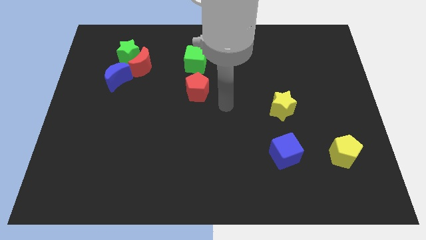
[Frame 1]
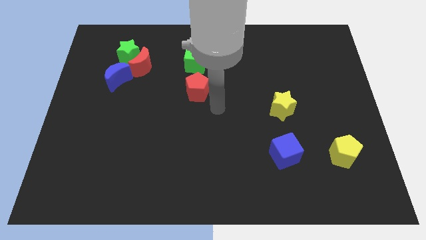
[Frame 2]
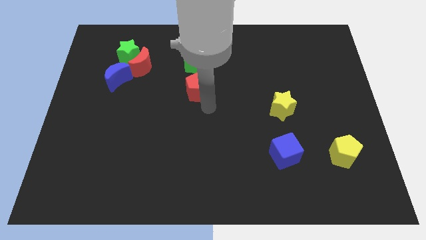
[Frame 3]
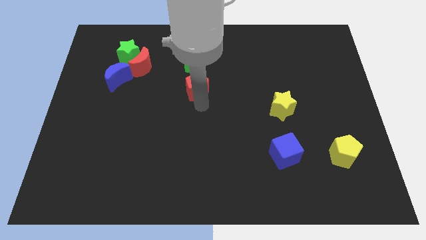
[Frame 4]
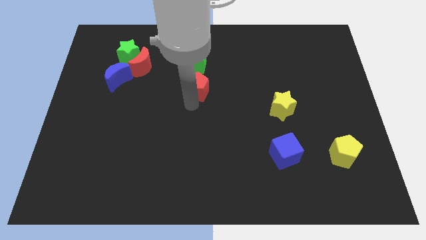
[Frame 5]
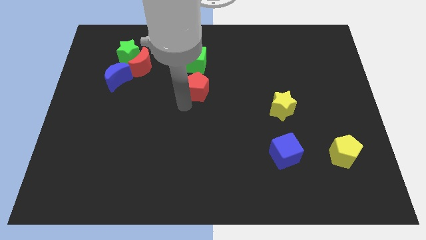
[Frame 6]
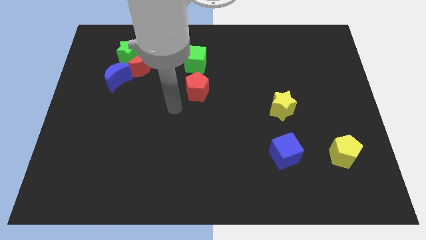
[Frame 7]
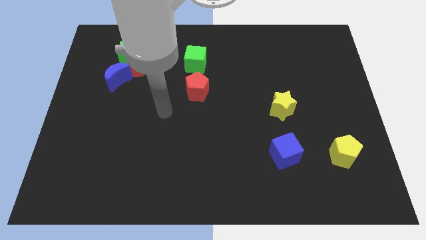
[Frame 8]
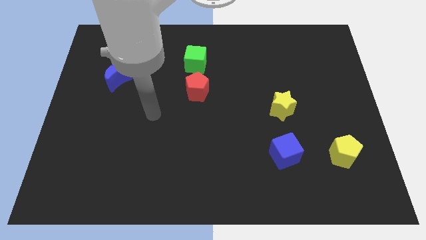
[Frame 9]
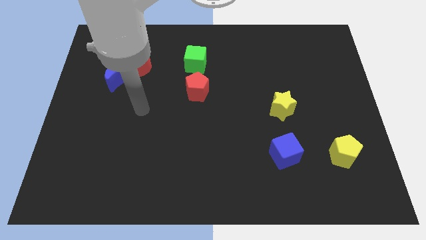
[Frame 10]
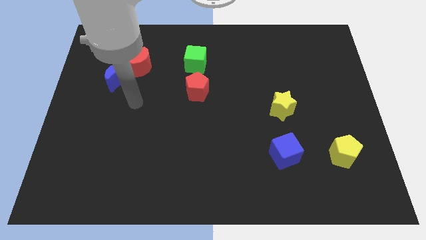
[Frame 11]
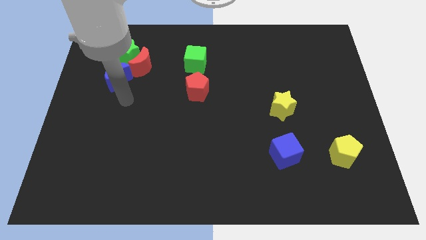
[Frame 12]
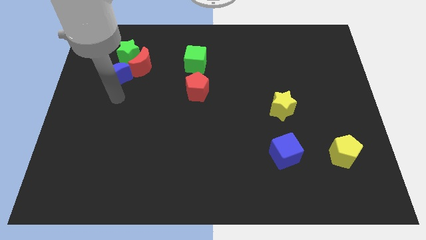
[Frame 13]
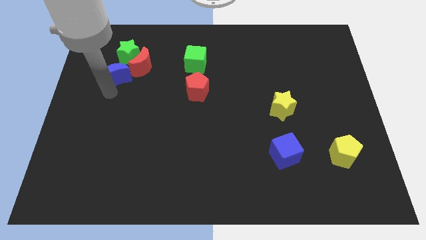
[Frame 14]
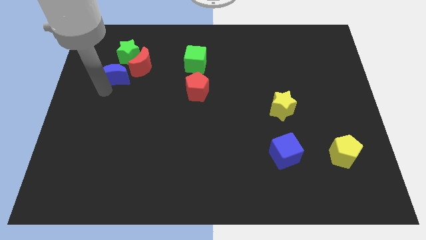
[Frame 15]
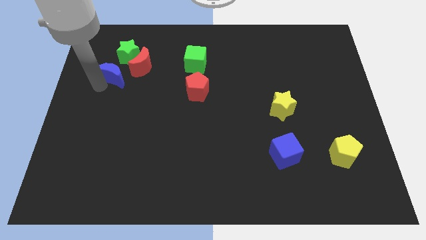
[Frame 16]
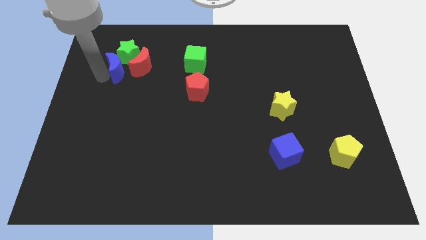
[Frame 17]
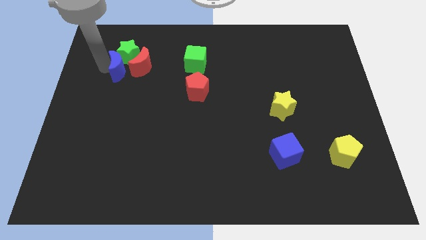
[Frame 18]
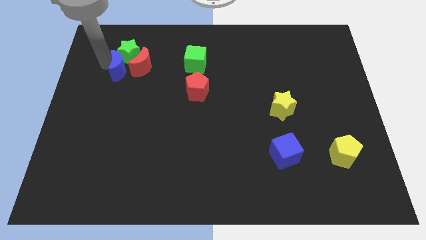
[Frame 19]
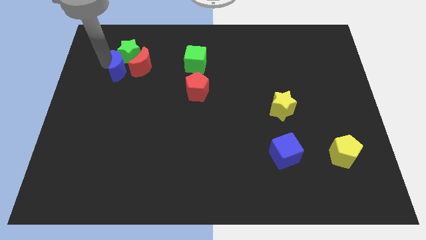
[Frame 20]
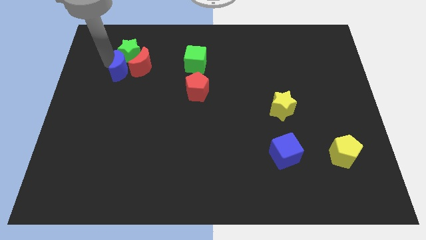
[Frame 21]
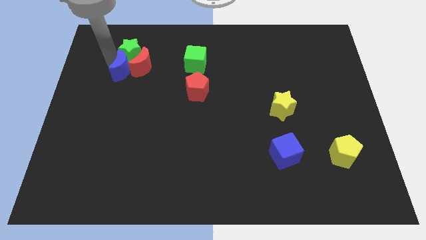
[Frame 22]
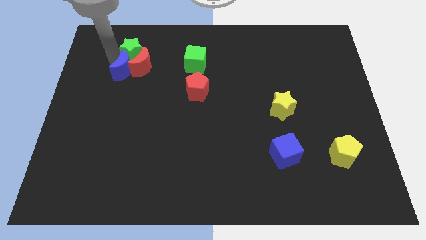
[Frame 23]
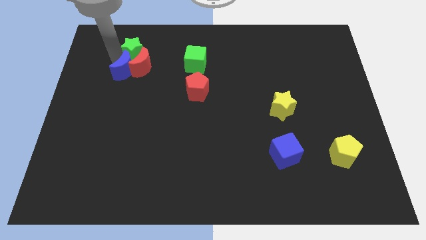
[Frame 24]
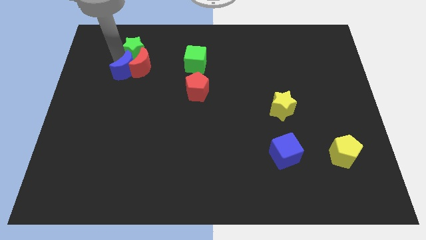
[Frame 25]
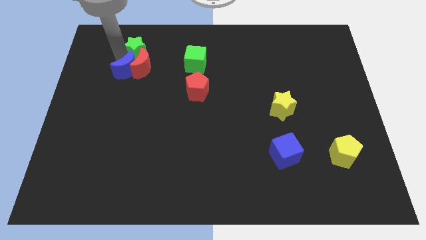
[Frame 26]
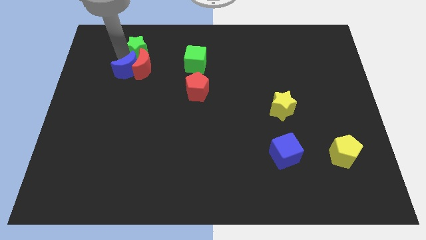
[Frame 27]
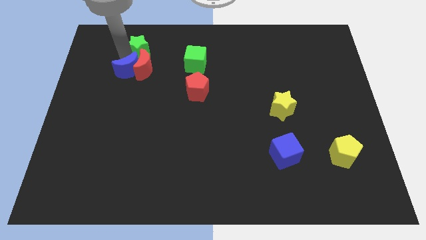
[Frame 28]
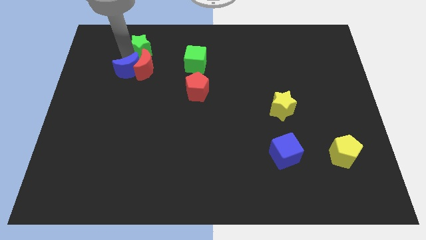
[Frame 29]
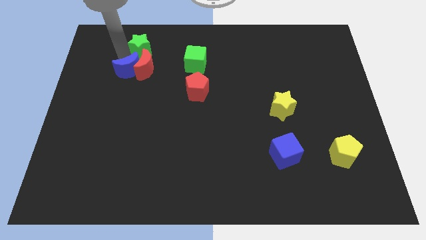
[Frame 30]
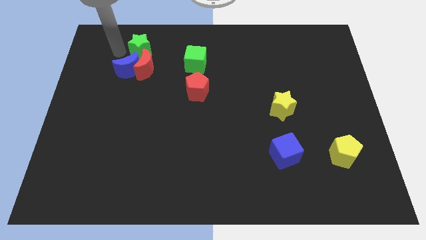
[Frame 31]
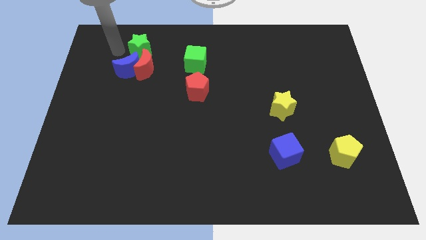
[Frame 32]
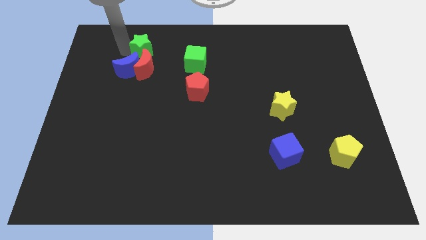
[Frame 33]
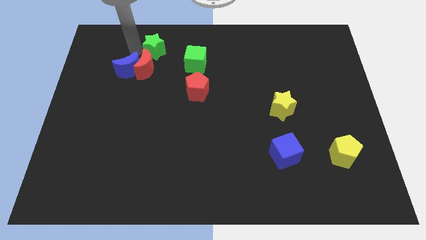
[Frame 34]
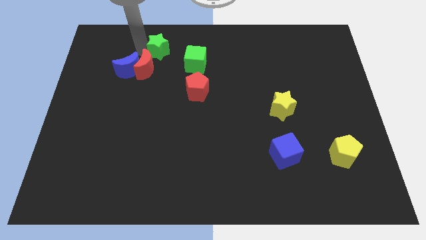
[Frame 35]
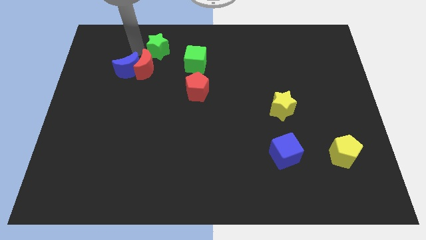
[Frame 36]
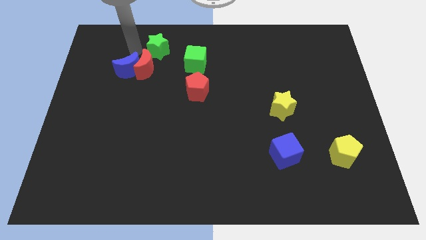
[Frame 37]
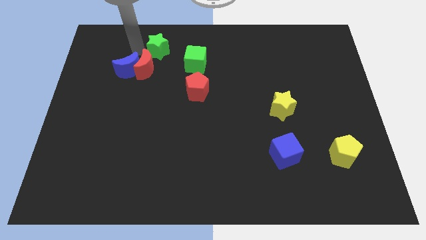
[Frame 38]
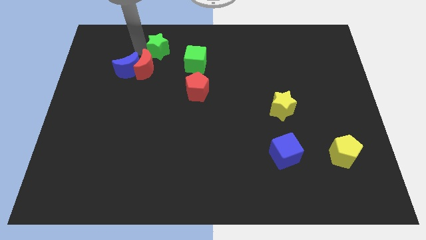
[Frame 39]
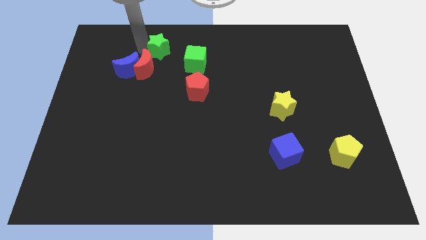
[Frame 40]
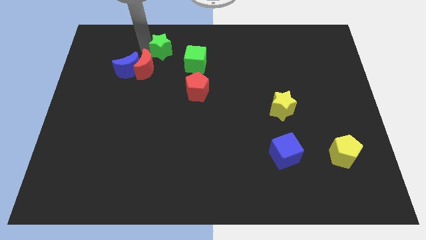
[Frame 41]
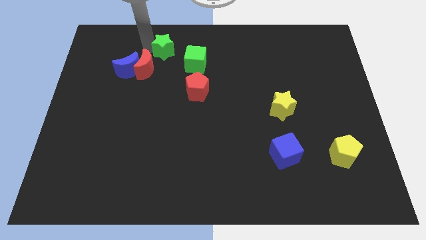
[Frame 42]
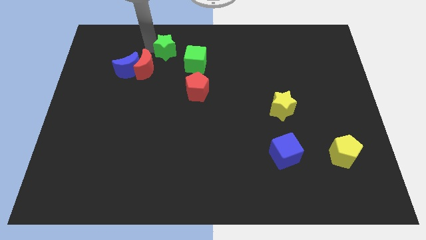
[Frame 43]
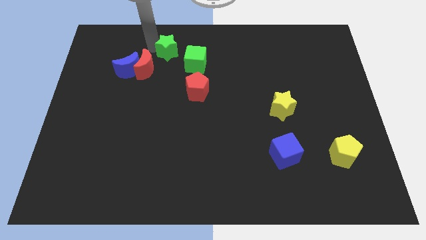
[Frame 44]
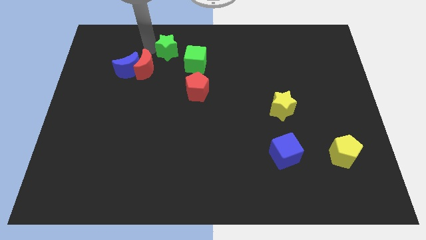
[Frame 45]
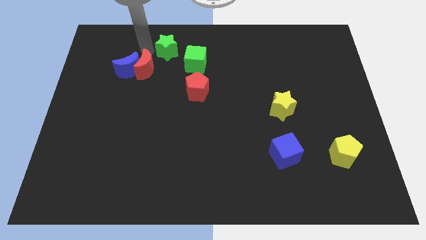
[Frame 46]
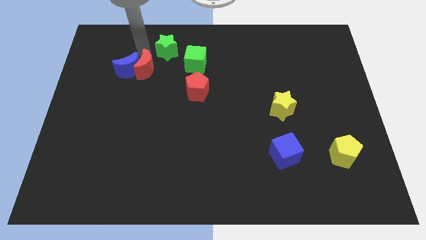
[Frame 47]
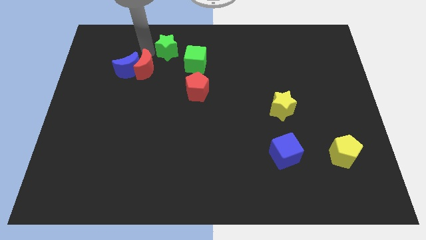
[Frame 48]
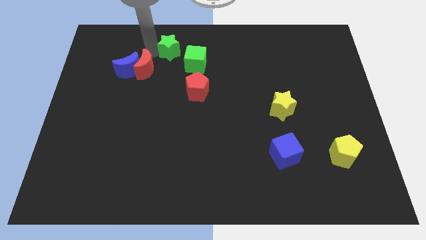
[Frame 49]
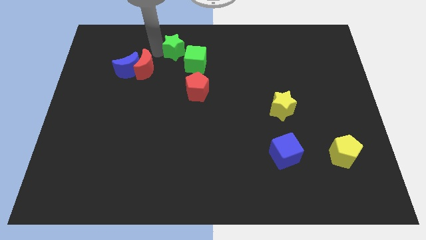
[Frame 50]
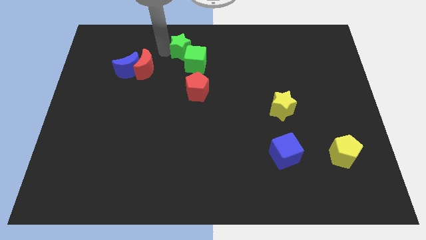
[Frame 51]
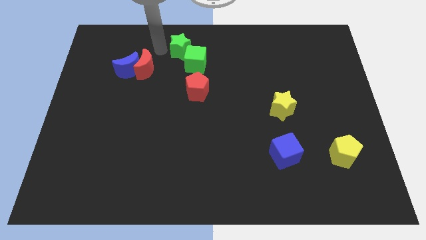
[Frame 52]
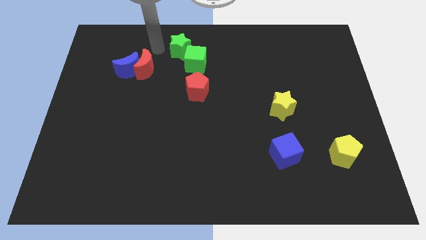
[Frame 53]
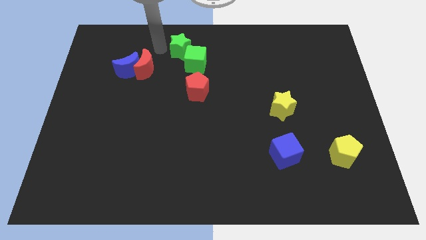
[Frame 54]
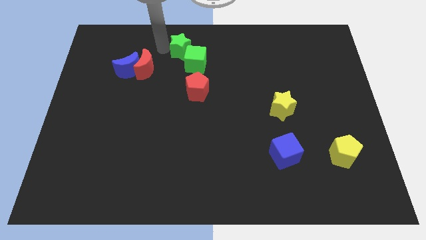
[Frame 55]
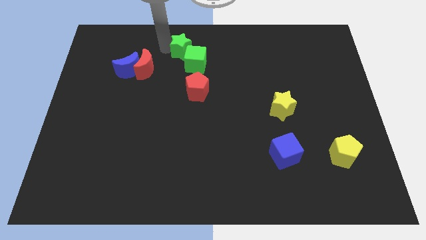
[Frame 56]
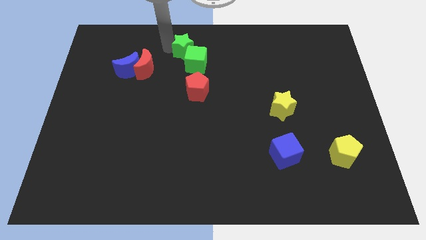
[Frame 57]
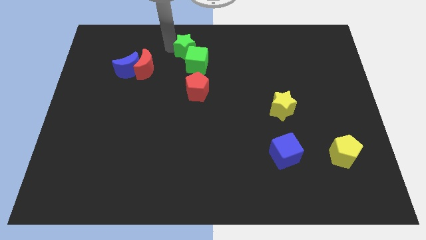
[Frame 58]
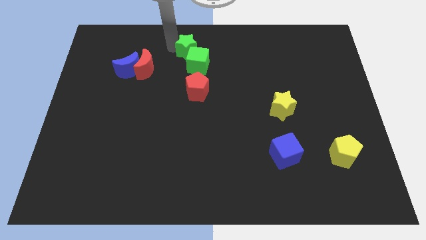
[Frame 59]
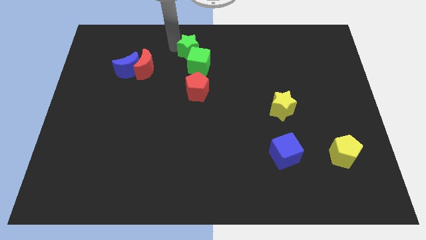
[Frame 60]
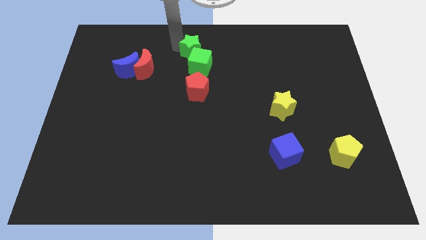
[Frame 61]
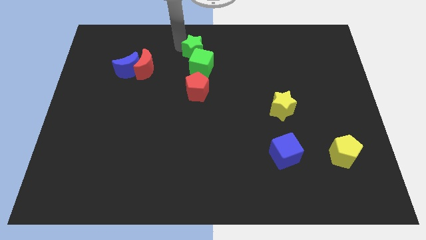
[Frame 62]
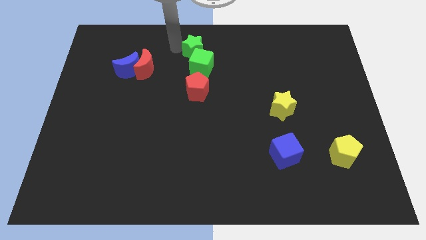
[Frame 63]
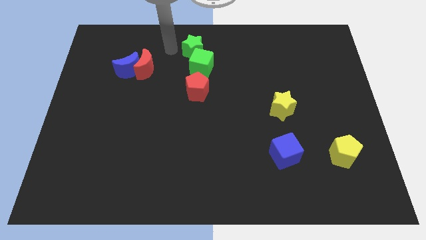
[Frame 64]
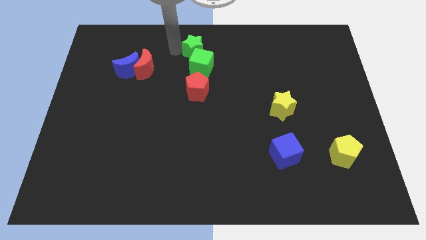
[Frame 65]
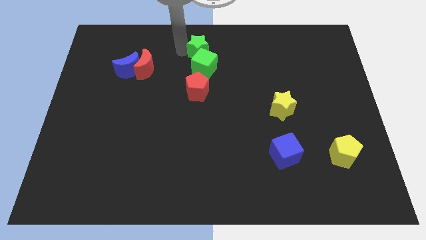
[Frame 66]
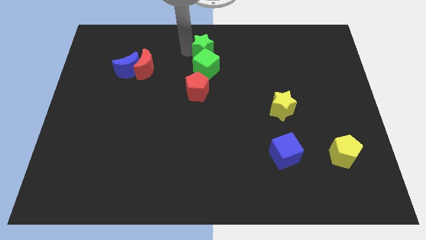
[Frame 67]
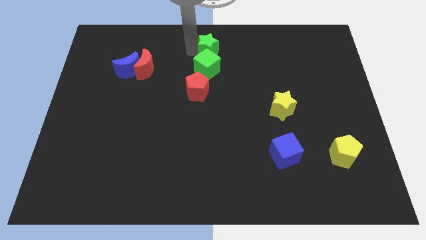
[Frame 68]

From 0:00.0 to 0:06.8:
push the green star to the right

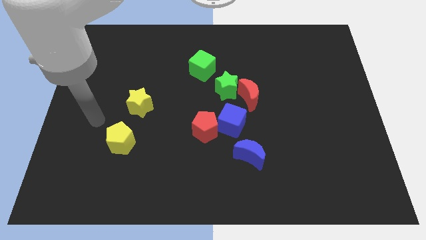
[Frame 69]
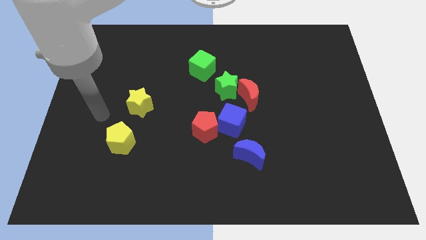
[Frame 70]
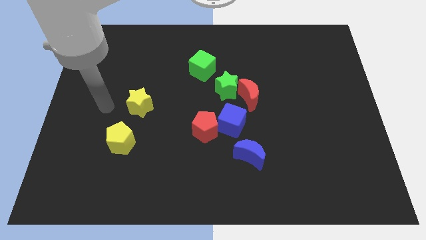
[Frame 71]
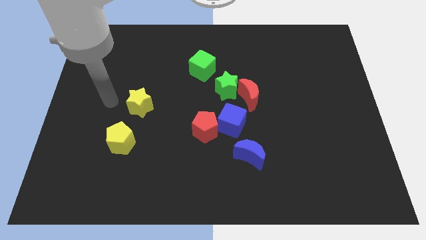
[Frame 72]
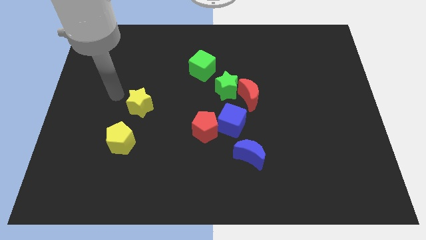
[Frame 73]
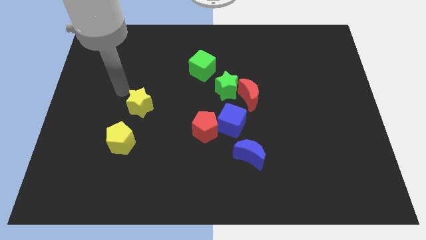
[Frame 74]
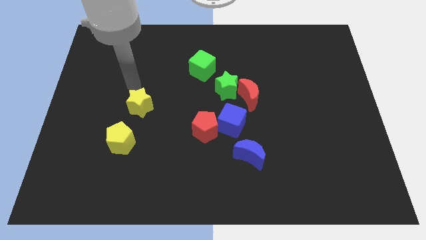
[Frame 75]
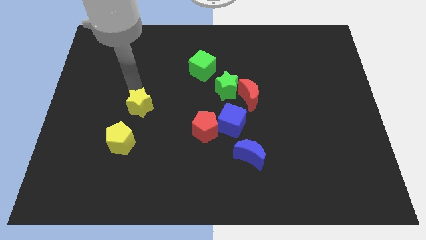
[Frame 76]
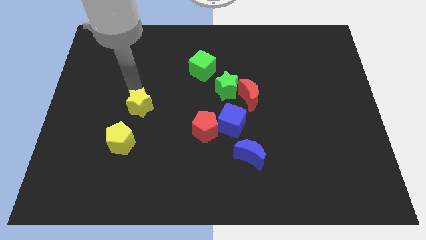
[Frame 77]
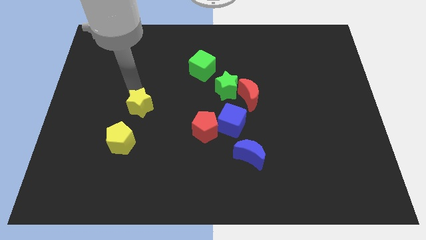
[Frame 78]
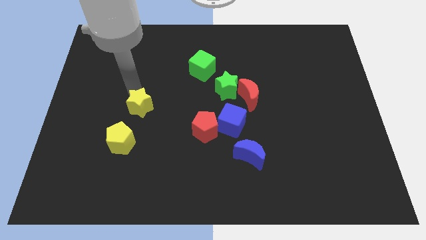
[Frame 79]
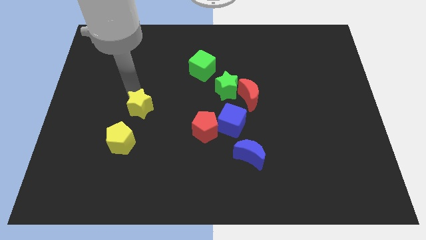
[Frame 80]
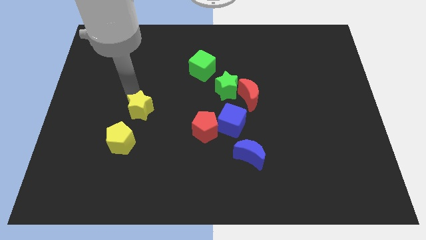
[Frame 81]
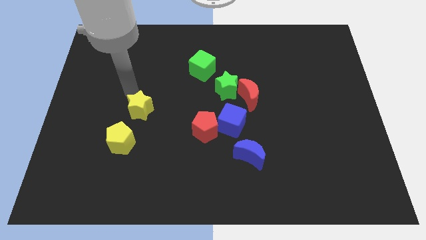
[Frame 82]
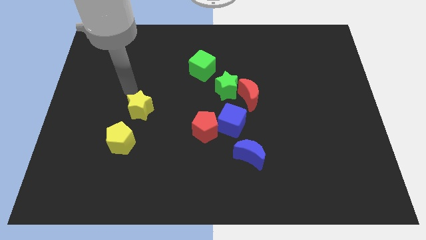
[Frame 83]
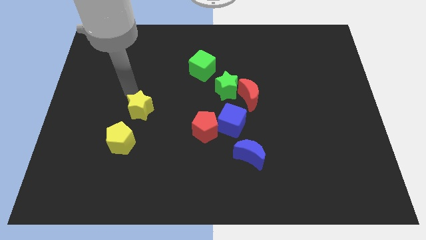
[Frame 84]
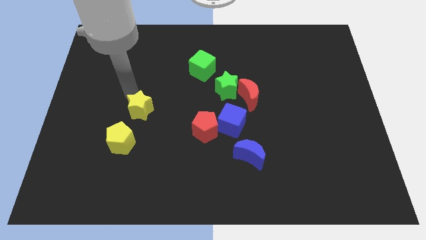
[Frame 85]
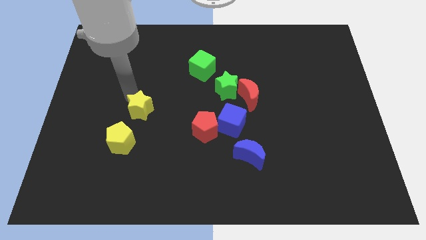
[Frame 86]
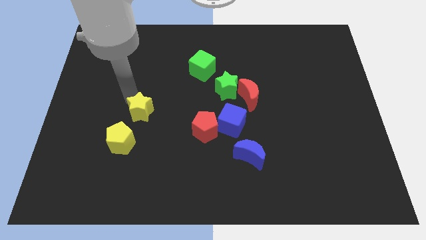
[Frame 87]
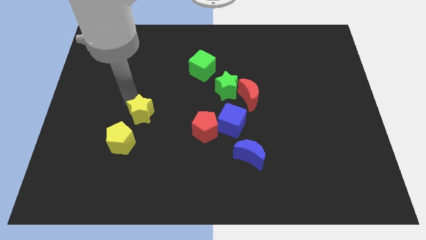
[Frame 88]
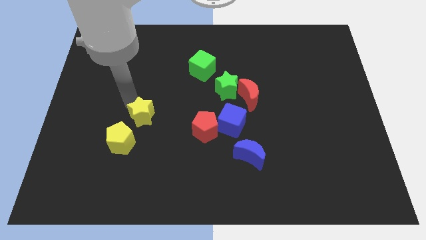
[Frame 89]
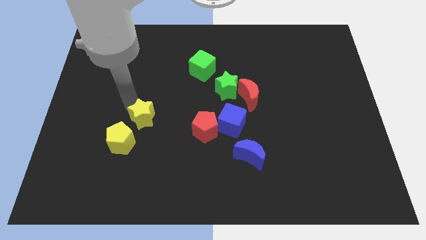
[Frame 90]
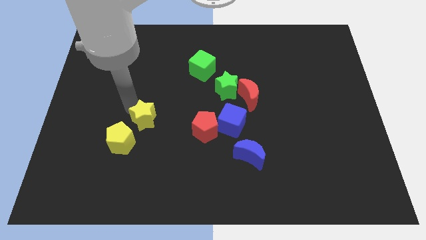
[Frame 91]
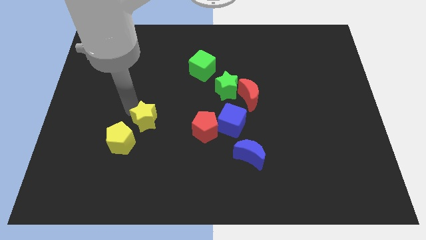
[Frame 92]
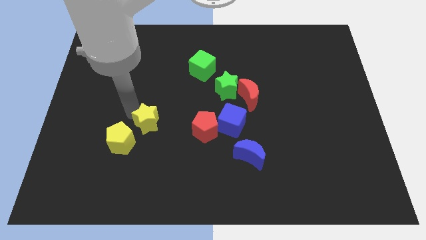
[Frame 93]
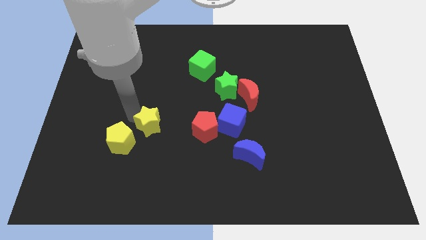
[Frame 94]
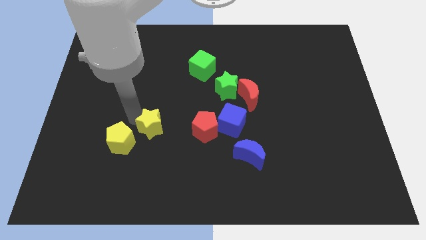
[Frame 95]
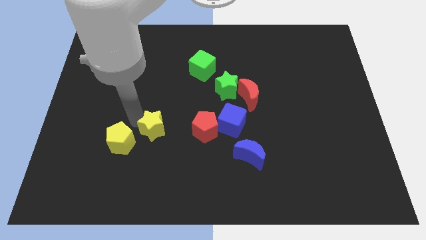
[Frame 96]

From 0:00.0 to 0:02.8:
slightly push the yellow star downwards and right
